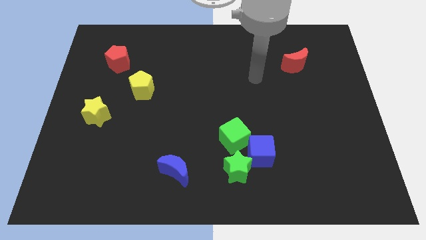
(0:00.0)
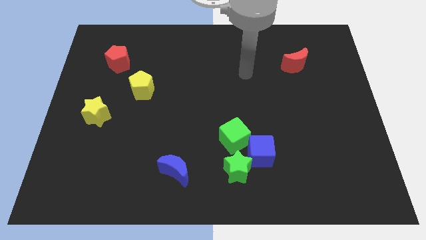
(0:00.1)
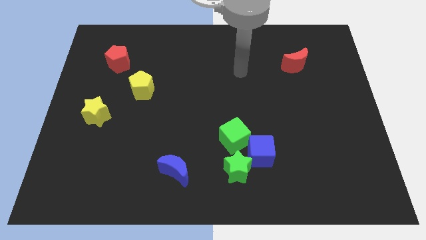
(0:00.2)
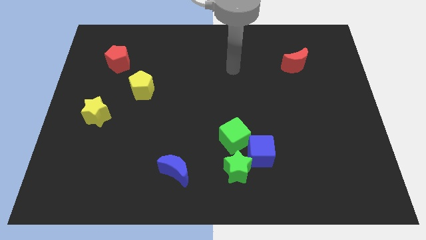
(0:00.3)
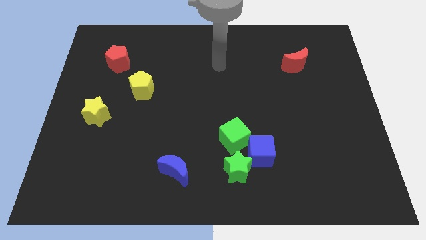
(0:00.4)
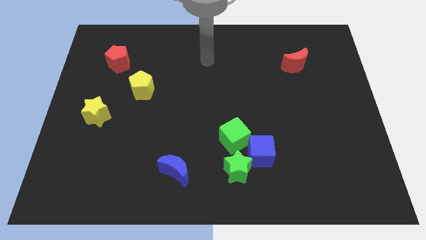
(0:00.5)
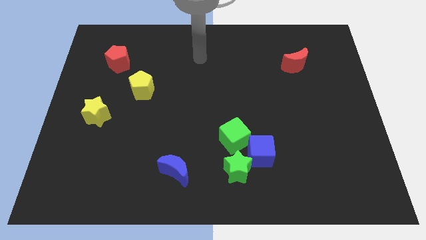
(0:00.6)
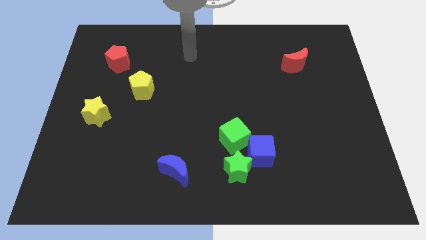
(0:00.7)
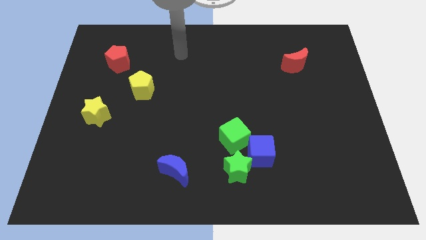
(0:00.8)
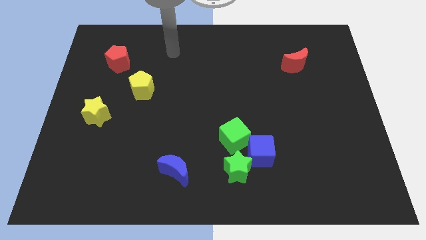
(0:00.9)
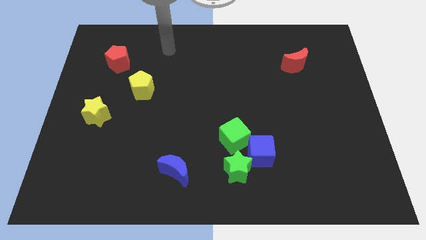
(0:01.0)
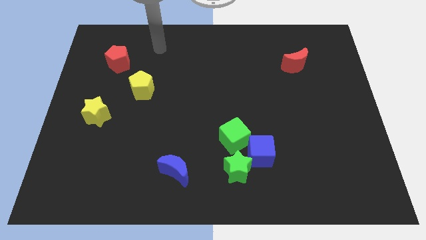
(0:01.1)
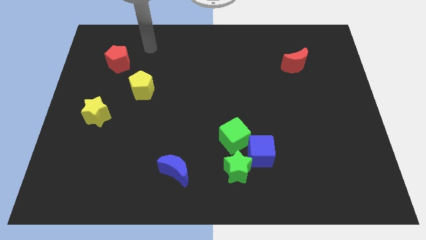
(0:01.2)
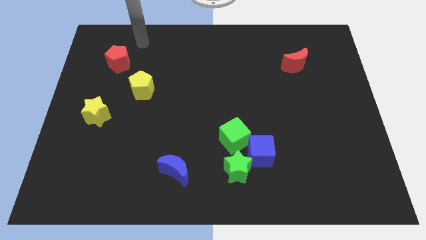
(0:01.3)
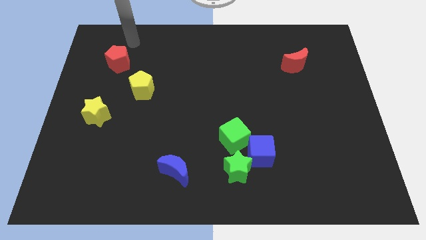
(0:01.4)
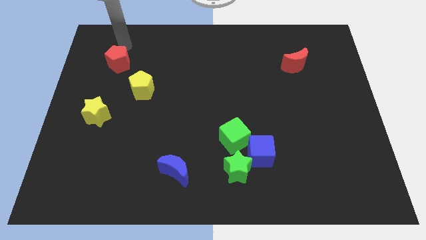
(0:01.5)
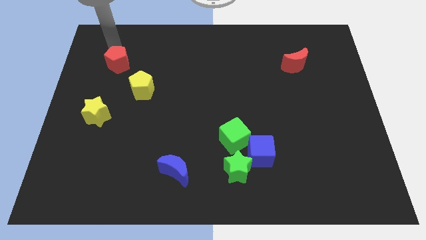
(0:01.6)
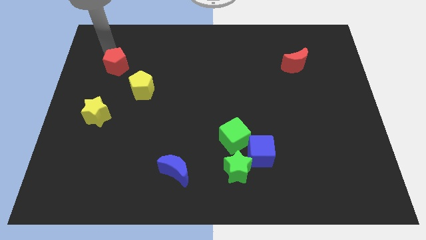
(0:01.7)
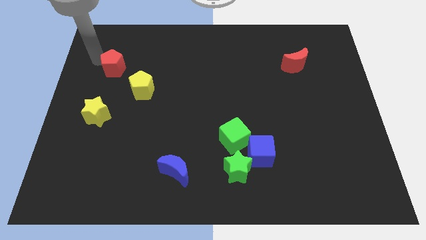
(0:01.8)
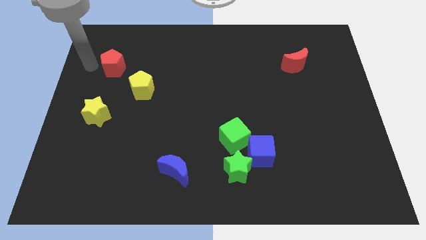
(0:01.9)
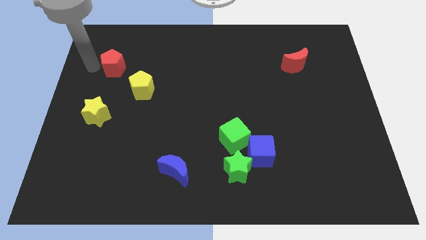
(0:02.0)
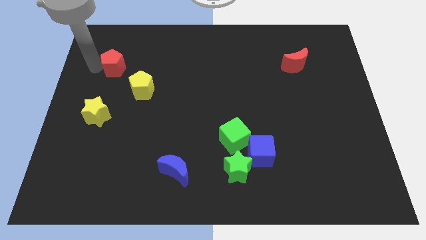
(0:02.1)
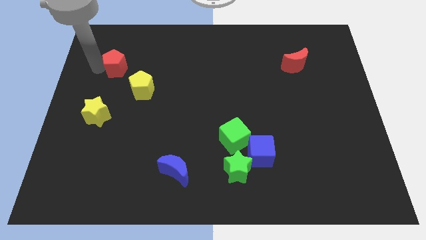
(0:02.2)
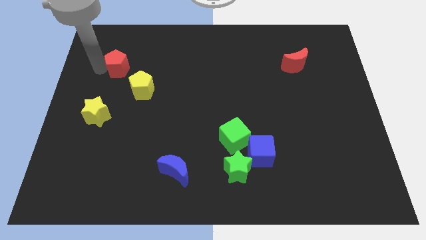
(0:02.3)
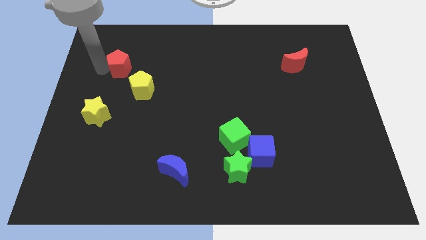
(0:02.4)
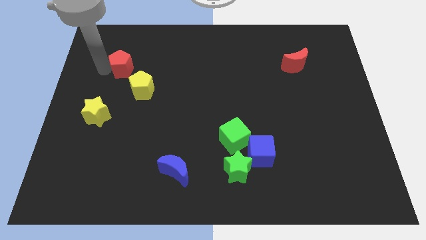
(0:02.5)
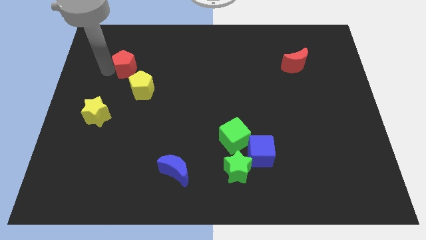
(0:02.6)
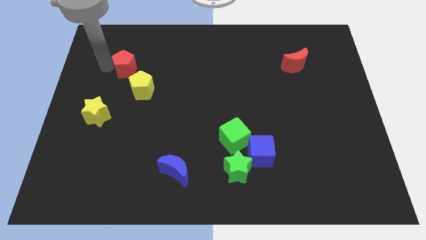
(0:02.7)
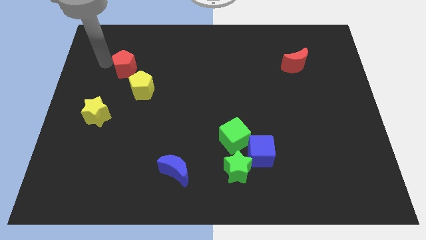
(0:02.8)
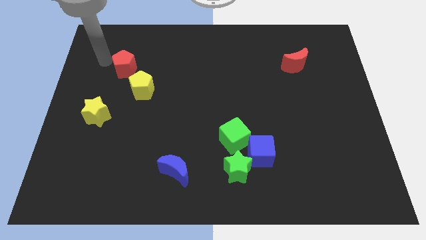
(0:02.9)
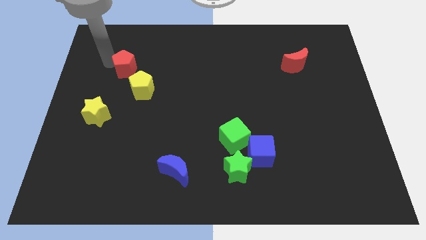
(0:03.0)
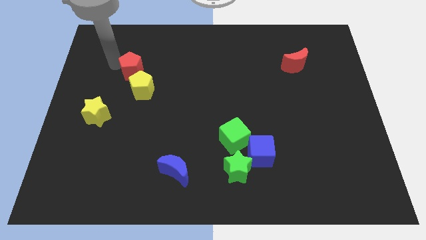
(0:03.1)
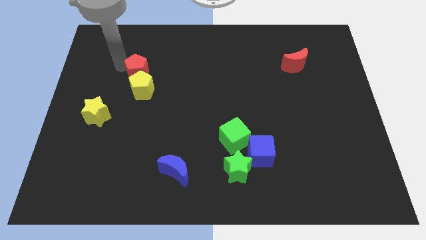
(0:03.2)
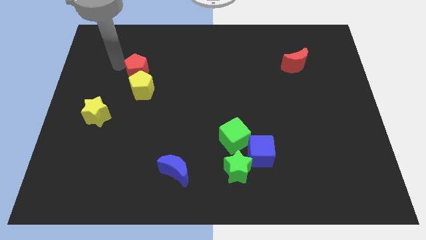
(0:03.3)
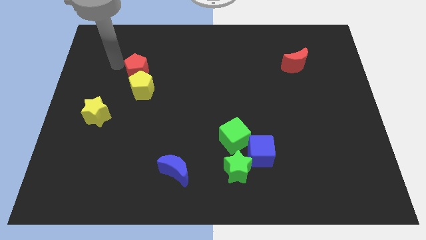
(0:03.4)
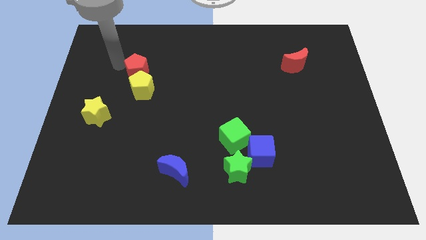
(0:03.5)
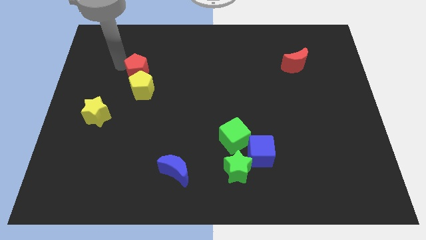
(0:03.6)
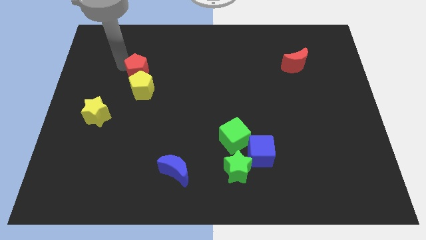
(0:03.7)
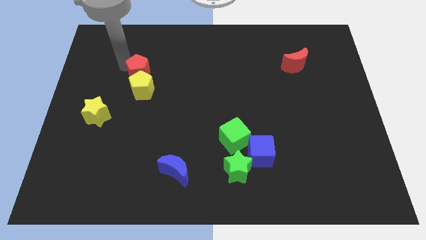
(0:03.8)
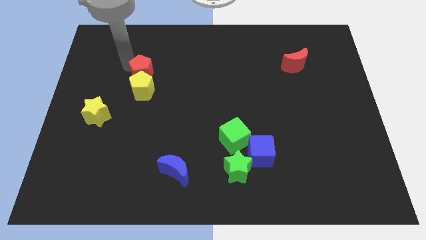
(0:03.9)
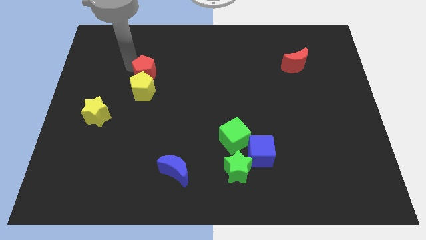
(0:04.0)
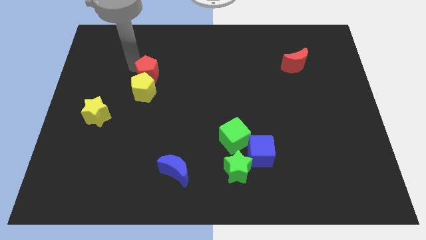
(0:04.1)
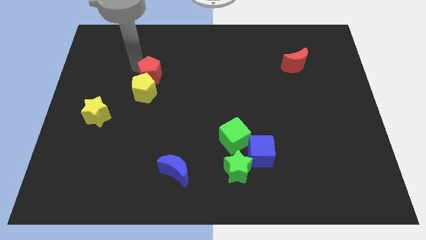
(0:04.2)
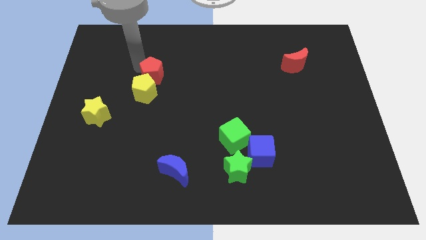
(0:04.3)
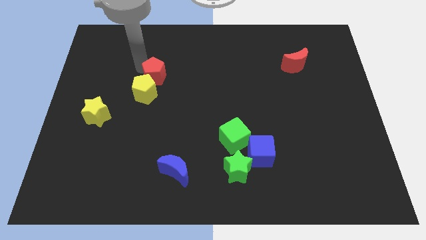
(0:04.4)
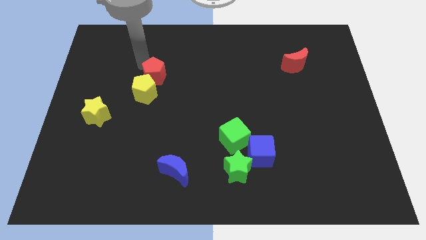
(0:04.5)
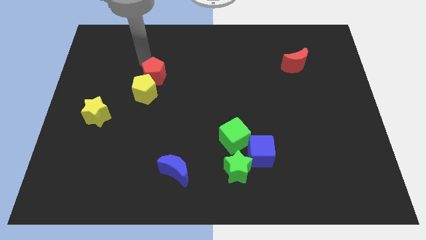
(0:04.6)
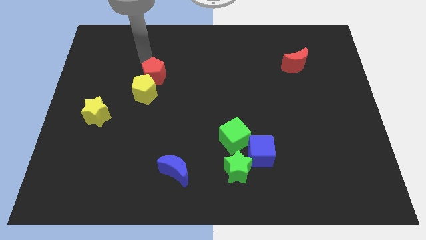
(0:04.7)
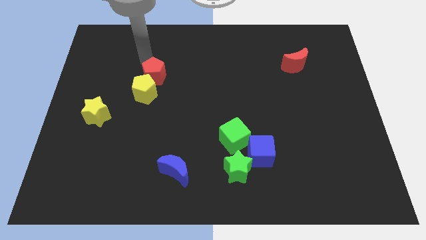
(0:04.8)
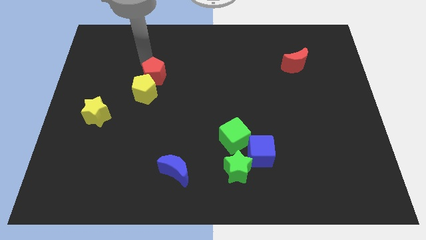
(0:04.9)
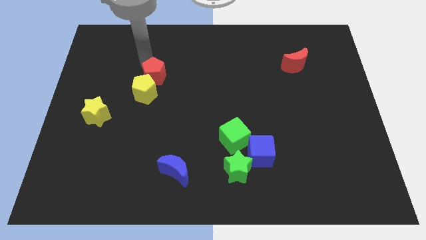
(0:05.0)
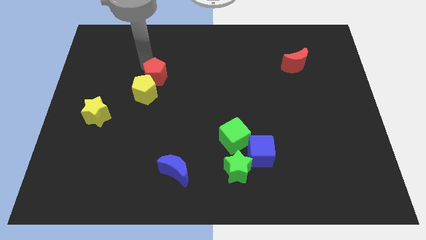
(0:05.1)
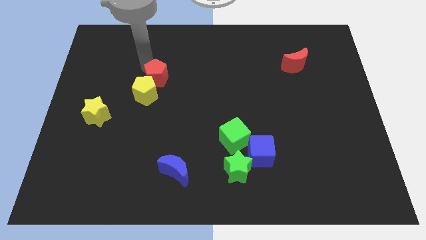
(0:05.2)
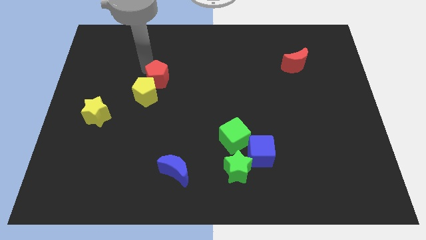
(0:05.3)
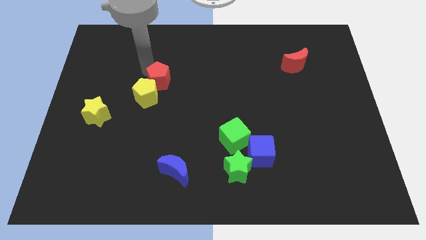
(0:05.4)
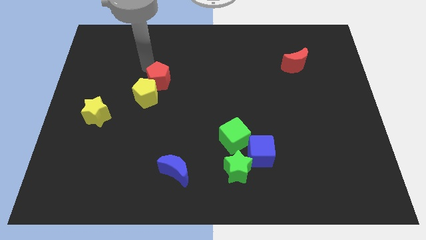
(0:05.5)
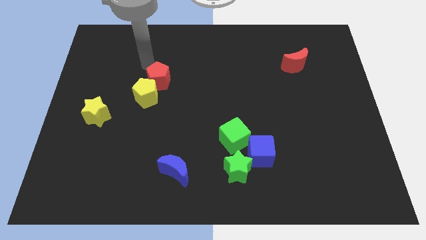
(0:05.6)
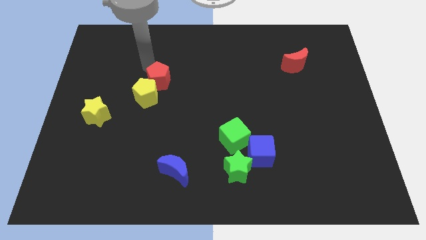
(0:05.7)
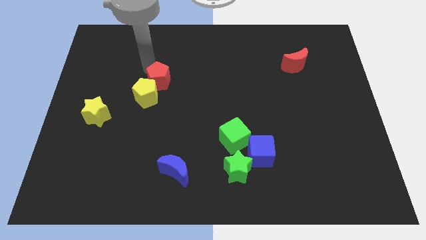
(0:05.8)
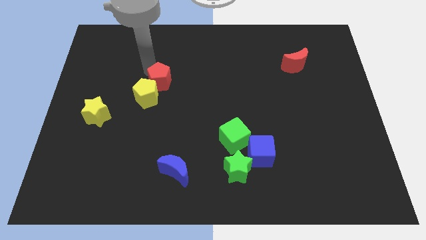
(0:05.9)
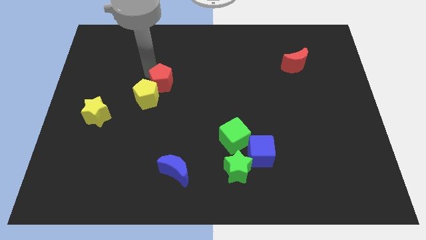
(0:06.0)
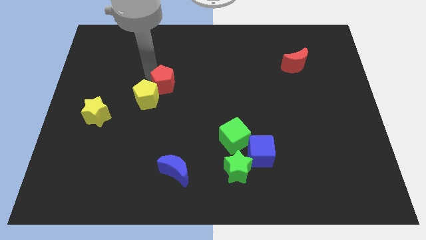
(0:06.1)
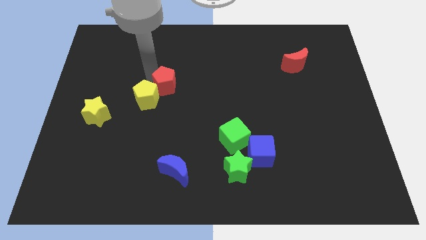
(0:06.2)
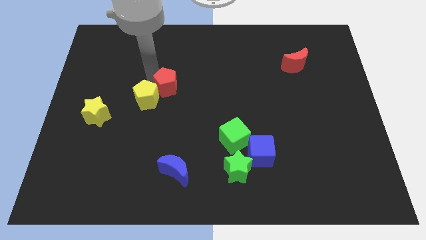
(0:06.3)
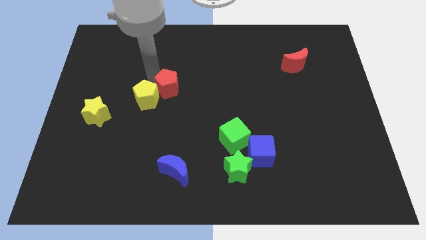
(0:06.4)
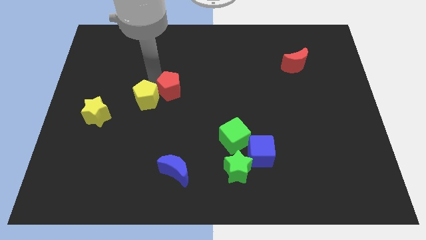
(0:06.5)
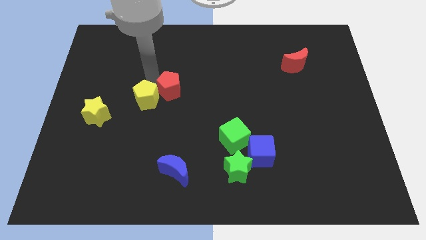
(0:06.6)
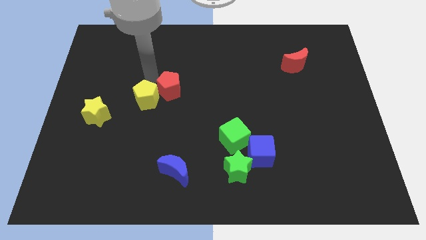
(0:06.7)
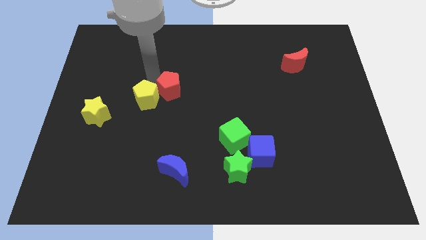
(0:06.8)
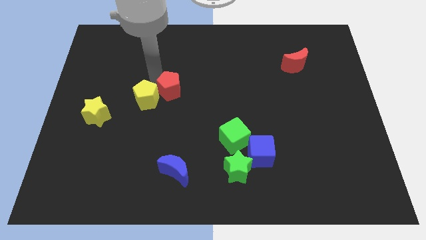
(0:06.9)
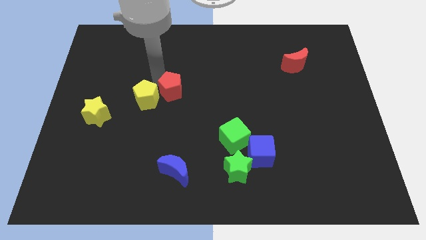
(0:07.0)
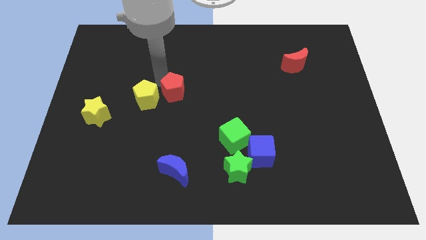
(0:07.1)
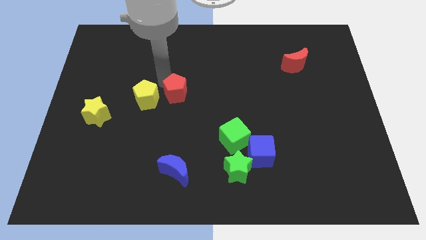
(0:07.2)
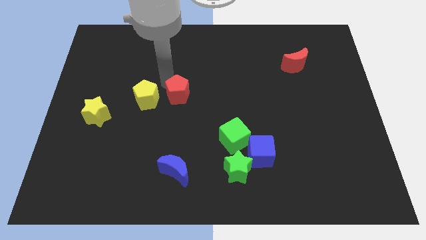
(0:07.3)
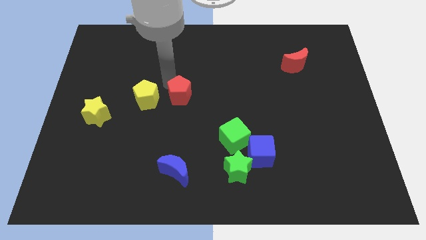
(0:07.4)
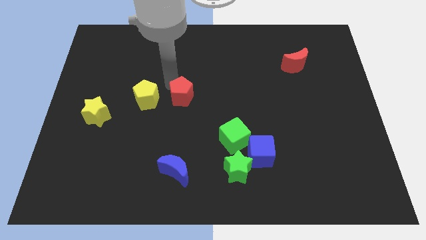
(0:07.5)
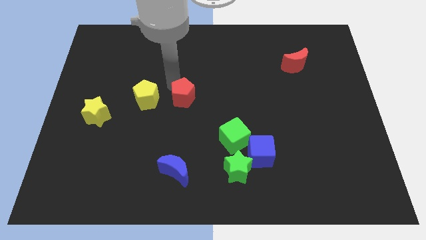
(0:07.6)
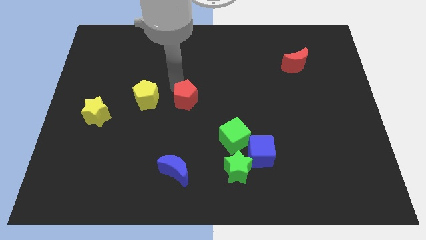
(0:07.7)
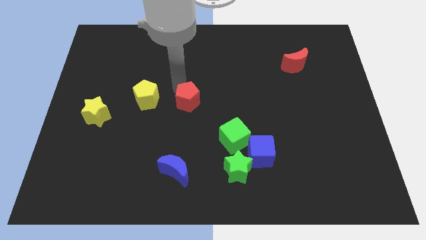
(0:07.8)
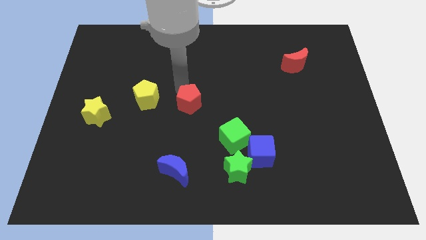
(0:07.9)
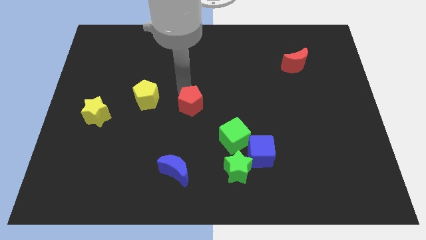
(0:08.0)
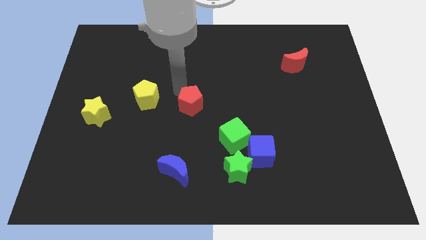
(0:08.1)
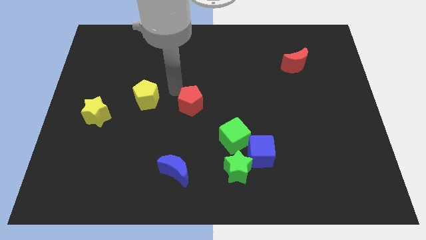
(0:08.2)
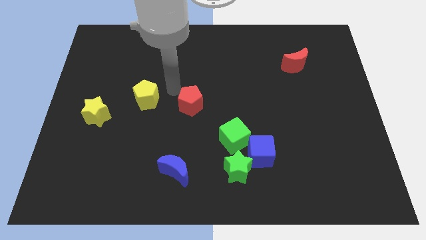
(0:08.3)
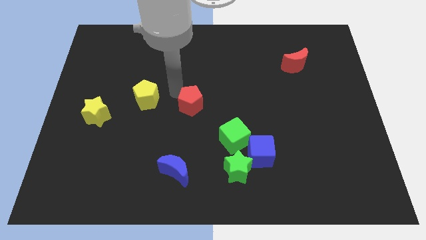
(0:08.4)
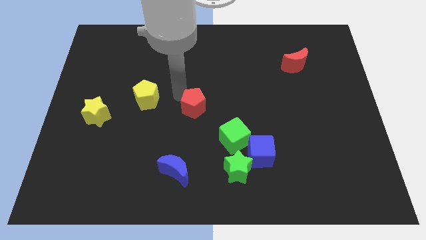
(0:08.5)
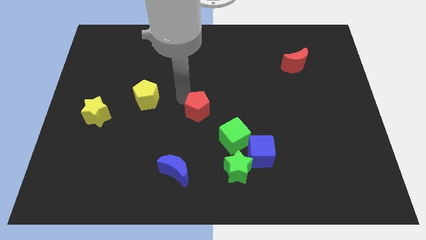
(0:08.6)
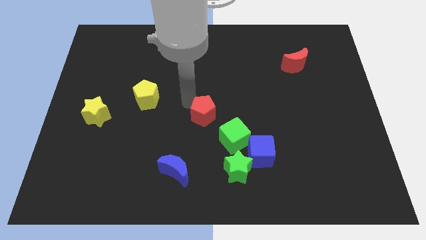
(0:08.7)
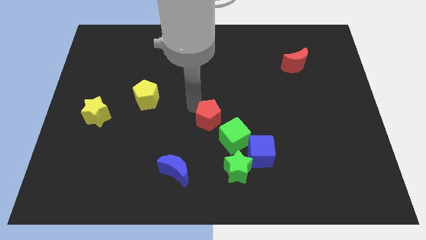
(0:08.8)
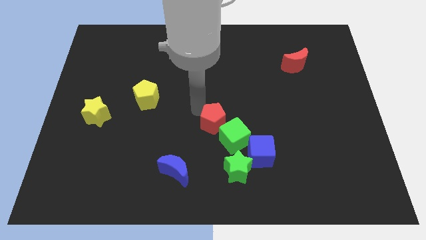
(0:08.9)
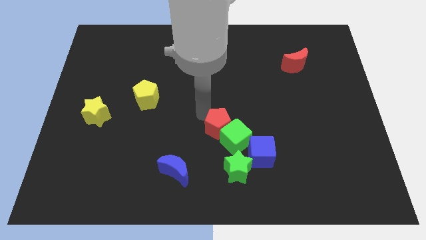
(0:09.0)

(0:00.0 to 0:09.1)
put the red pentagon towards the green cube
